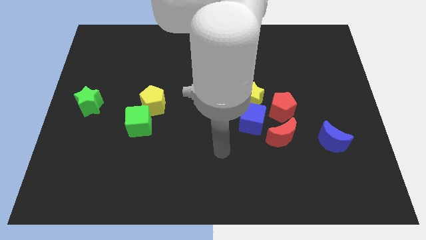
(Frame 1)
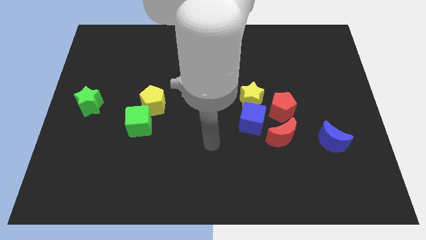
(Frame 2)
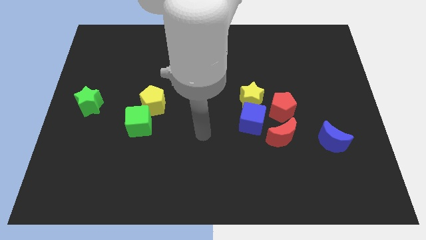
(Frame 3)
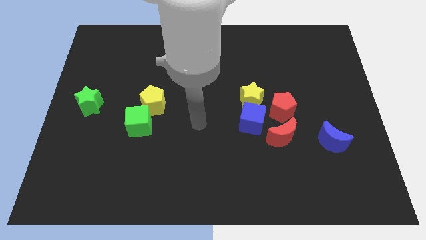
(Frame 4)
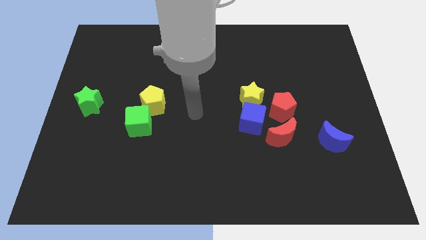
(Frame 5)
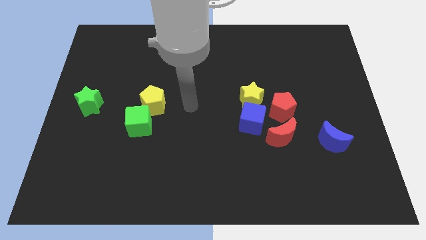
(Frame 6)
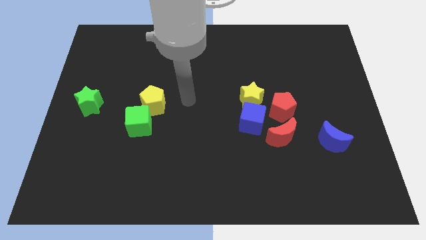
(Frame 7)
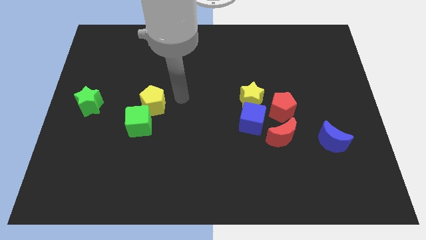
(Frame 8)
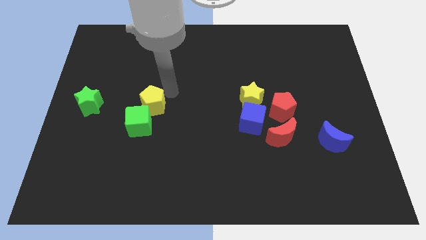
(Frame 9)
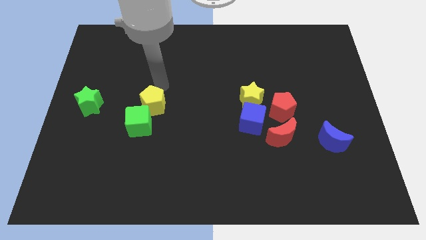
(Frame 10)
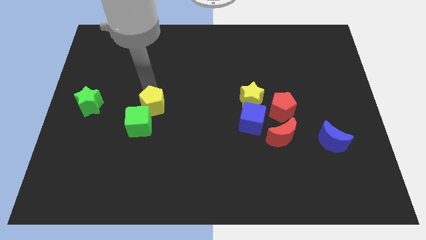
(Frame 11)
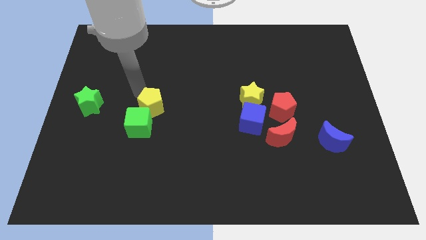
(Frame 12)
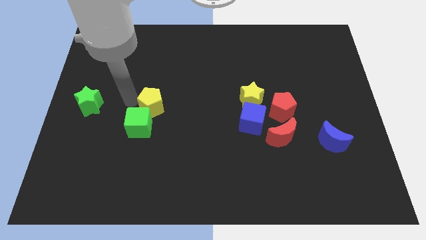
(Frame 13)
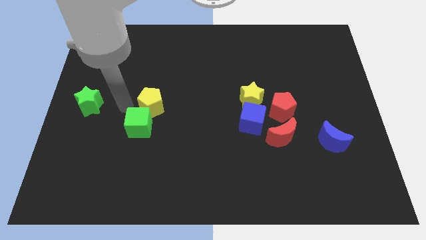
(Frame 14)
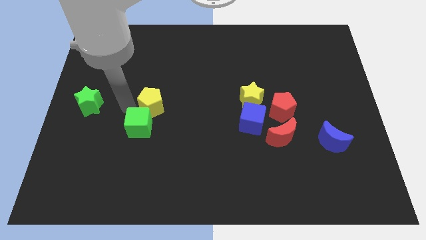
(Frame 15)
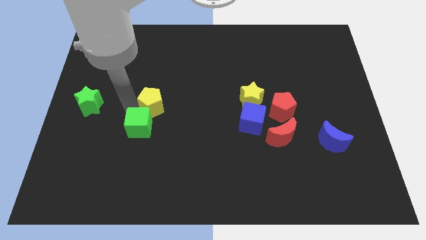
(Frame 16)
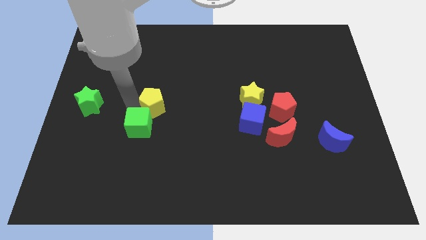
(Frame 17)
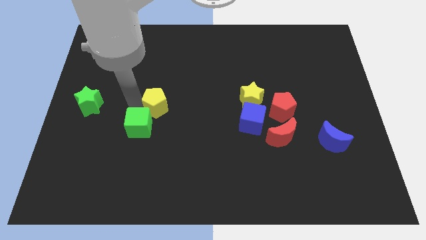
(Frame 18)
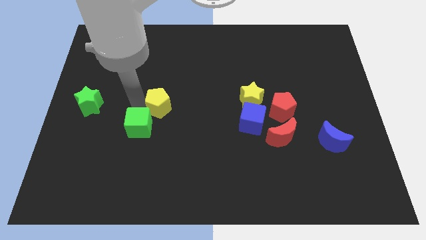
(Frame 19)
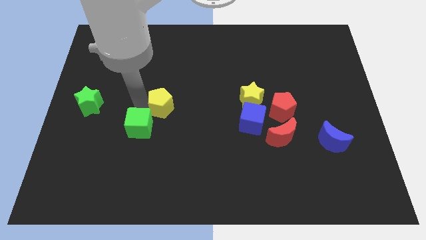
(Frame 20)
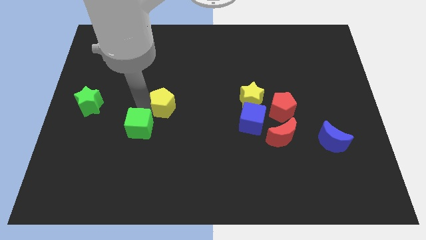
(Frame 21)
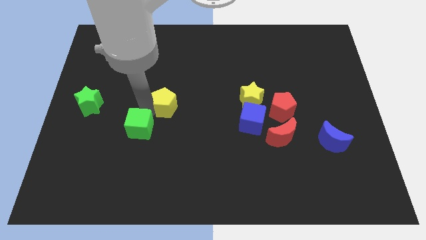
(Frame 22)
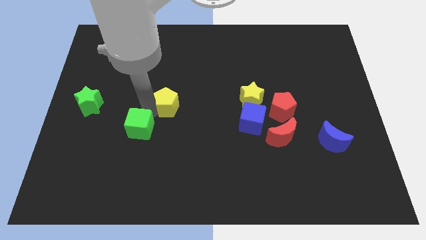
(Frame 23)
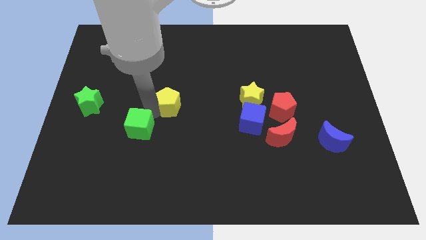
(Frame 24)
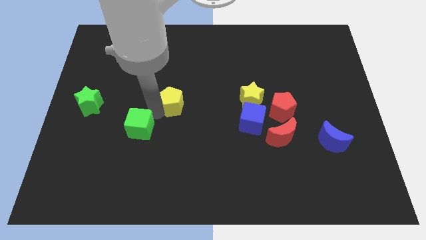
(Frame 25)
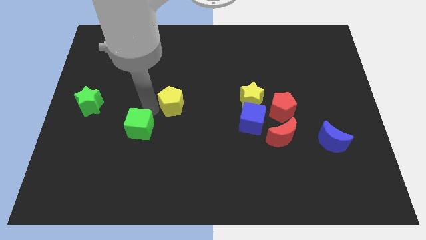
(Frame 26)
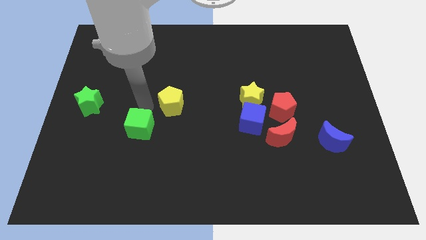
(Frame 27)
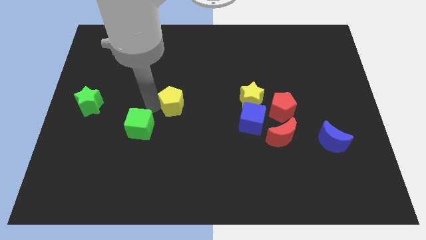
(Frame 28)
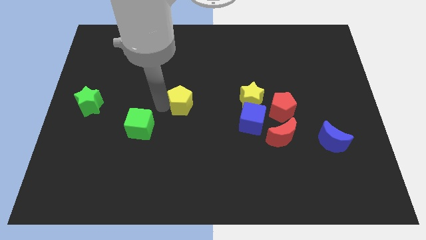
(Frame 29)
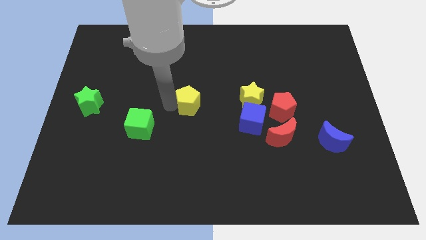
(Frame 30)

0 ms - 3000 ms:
slightly slide the yellow pentagon to the right

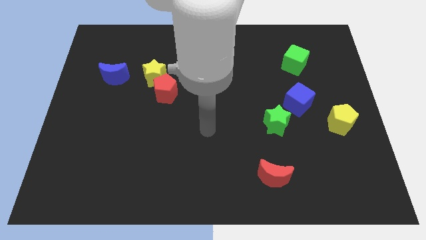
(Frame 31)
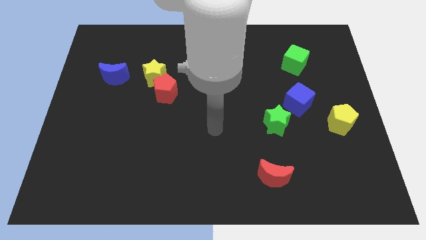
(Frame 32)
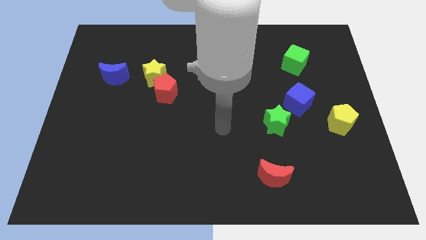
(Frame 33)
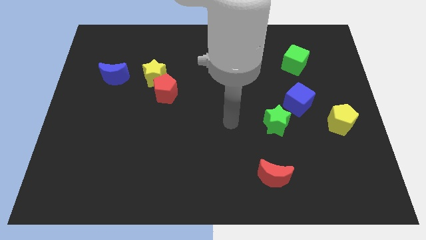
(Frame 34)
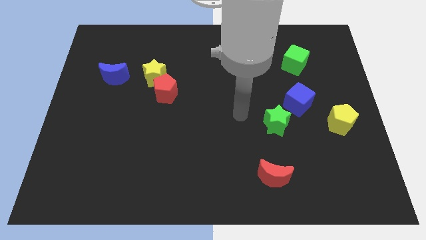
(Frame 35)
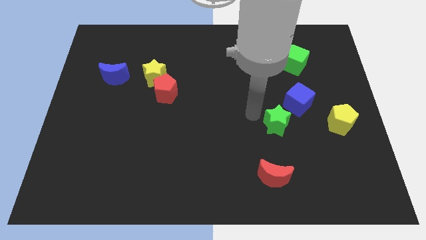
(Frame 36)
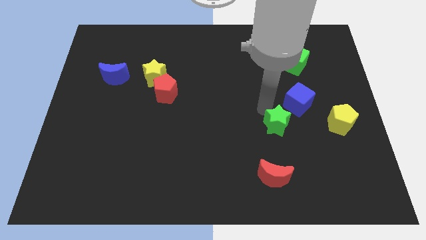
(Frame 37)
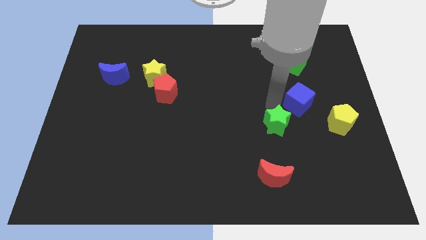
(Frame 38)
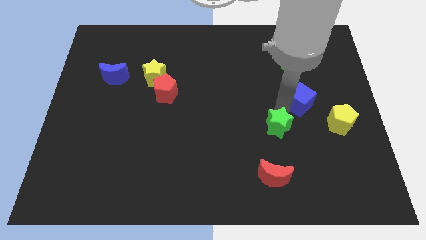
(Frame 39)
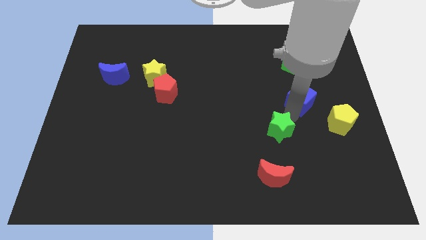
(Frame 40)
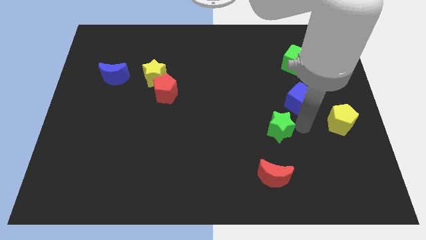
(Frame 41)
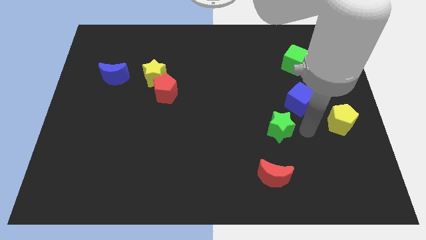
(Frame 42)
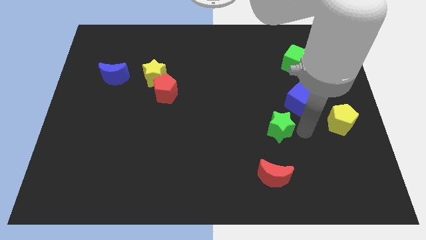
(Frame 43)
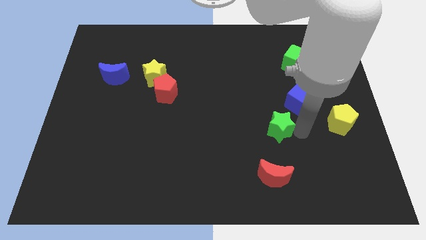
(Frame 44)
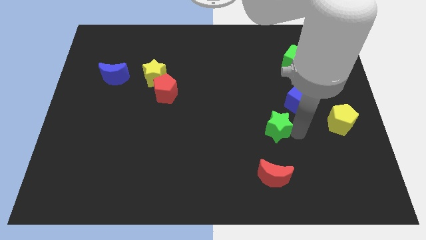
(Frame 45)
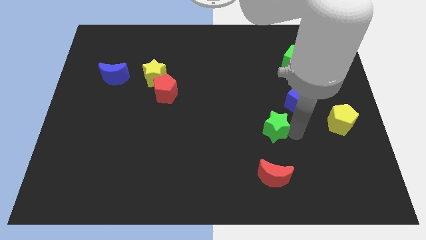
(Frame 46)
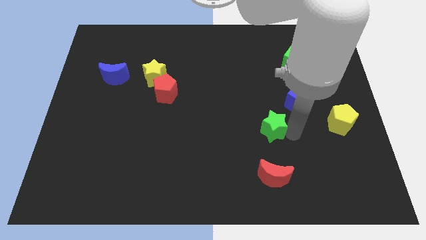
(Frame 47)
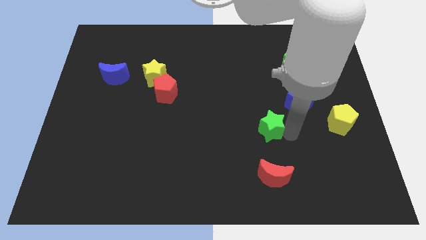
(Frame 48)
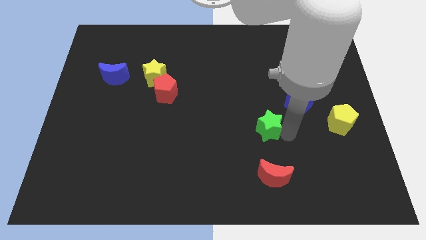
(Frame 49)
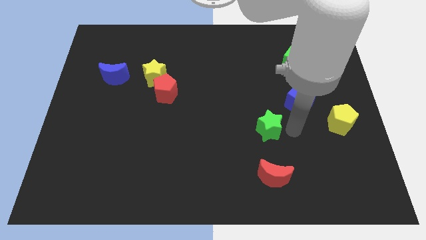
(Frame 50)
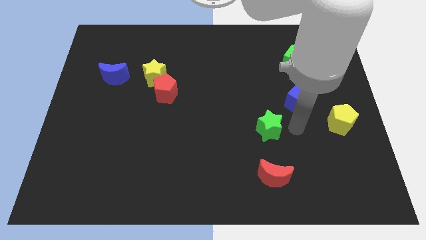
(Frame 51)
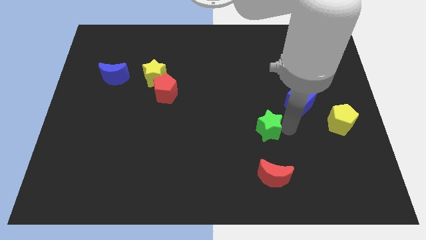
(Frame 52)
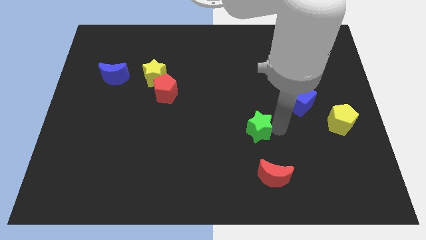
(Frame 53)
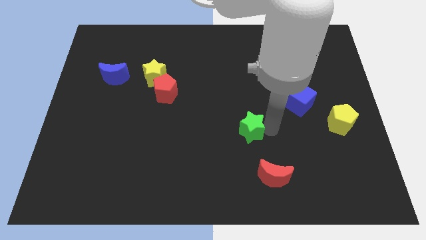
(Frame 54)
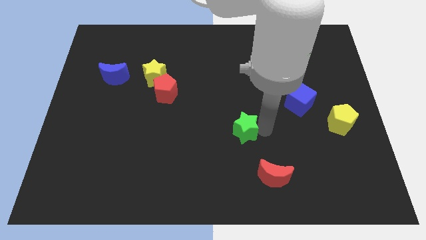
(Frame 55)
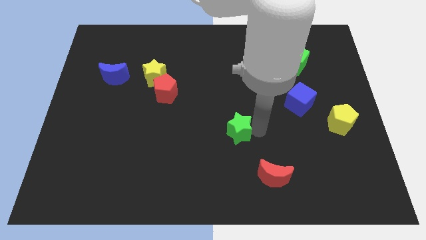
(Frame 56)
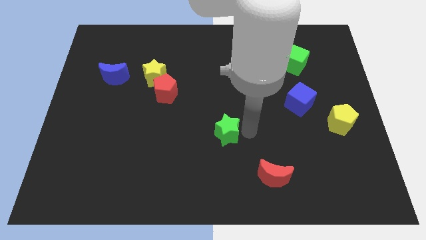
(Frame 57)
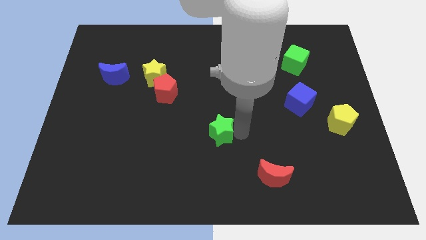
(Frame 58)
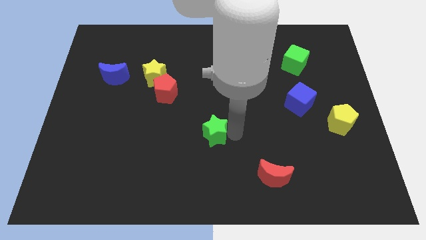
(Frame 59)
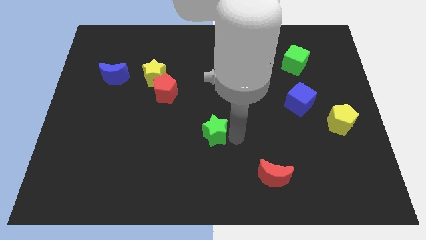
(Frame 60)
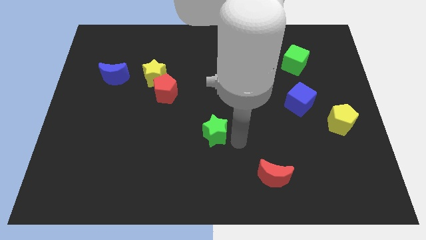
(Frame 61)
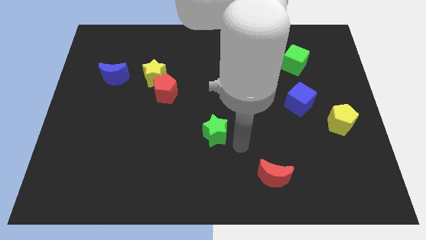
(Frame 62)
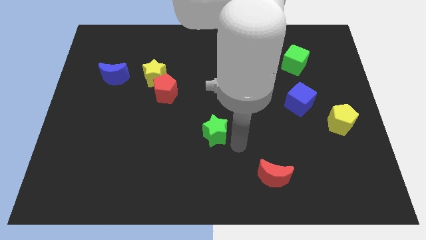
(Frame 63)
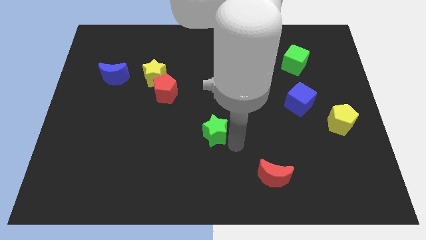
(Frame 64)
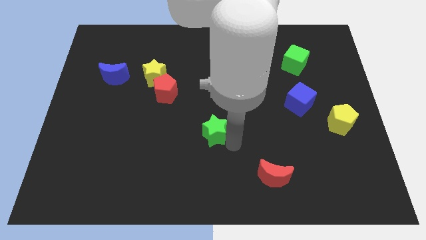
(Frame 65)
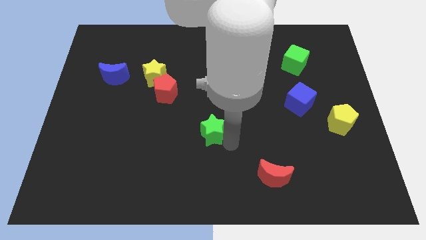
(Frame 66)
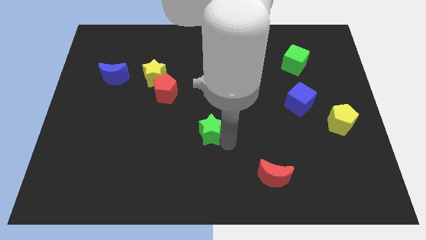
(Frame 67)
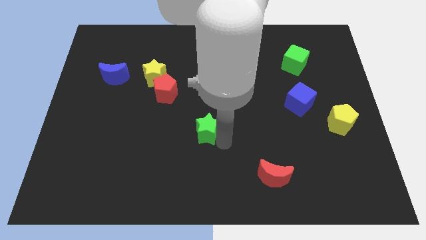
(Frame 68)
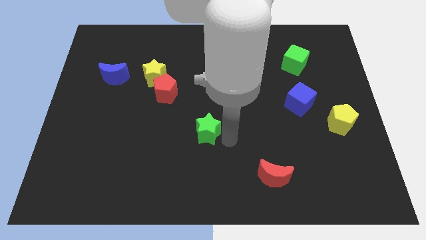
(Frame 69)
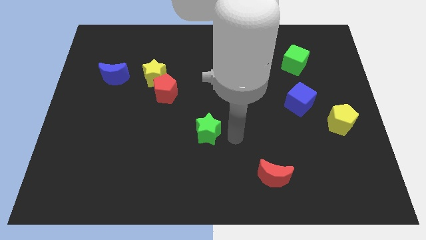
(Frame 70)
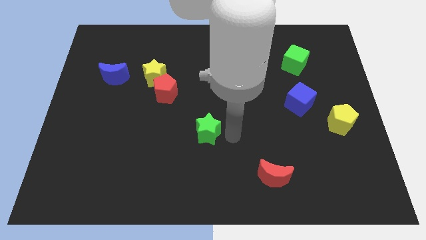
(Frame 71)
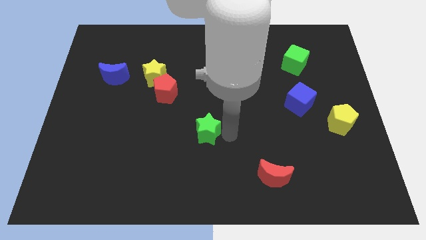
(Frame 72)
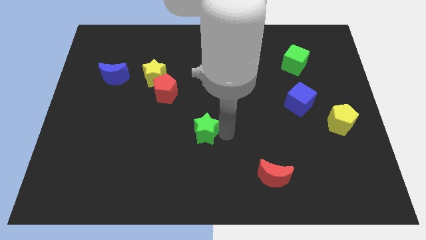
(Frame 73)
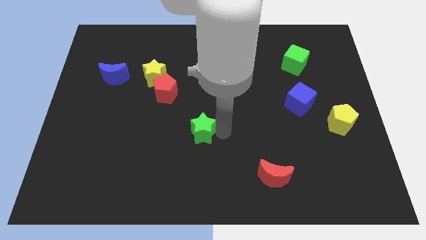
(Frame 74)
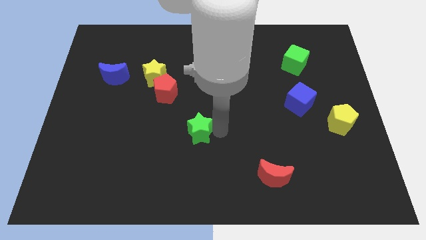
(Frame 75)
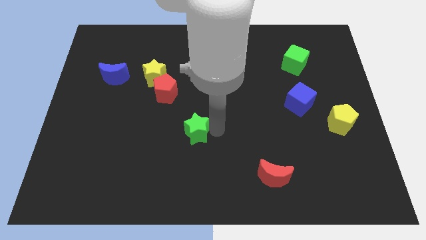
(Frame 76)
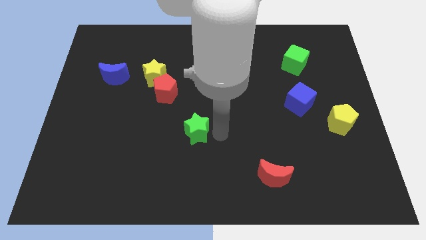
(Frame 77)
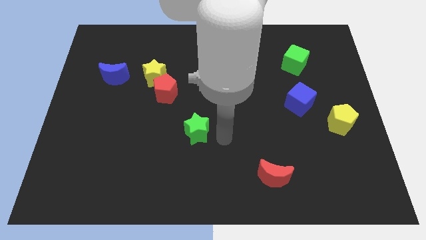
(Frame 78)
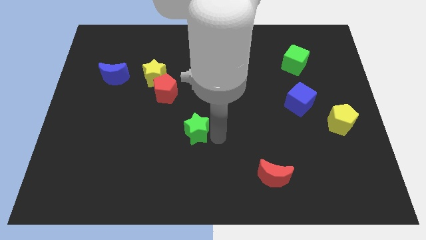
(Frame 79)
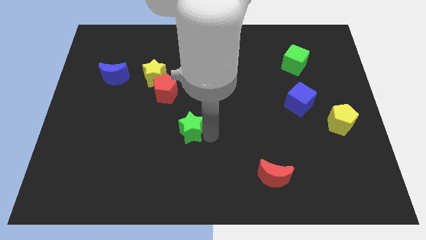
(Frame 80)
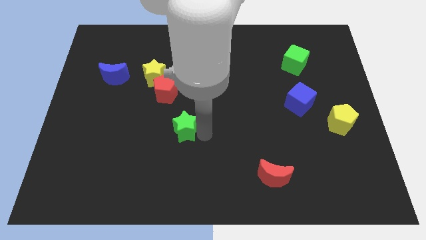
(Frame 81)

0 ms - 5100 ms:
move the green star left
